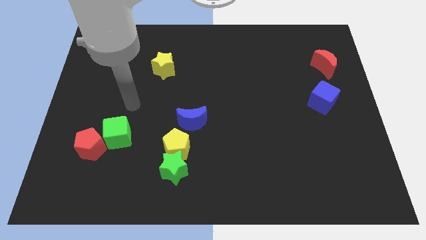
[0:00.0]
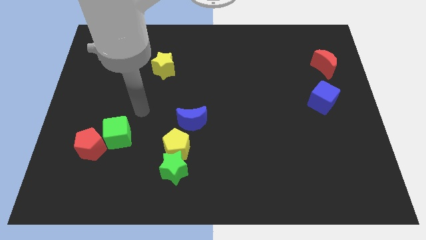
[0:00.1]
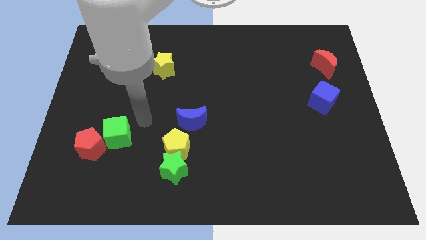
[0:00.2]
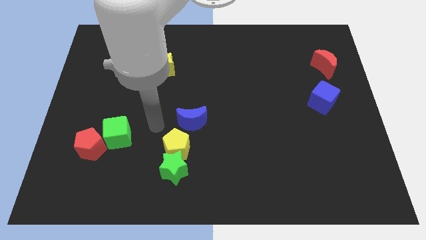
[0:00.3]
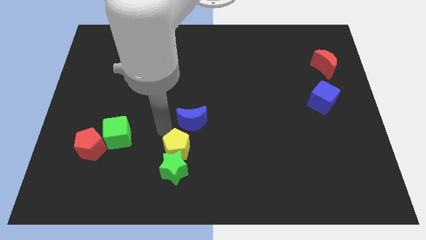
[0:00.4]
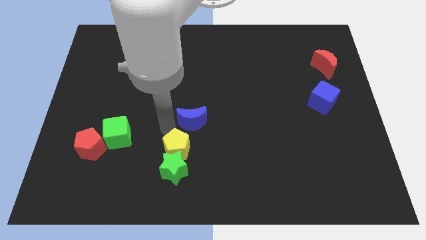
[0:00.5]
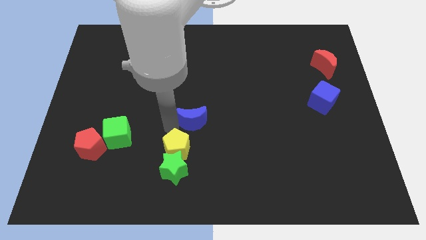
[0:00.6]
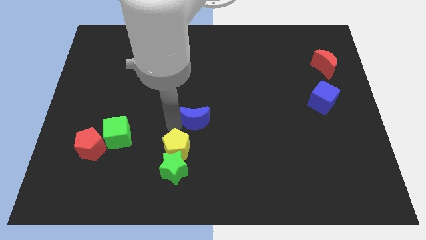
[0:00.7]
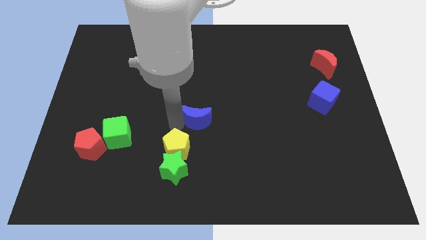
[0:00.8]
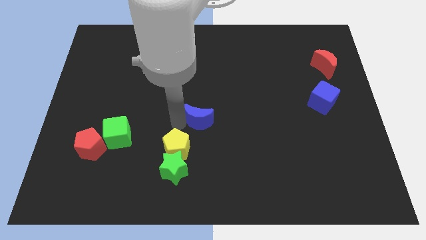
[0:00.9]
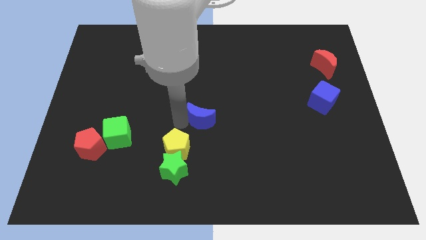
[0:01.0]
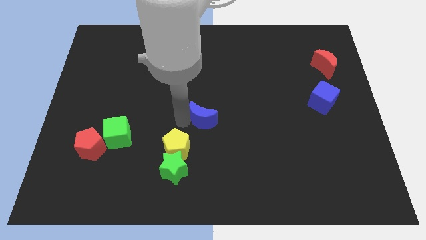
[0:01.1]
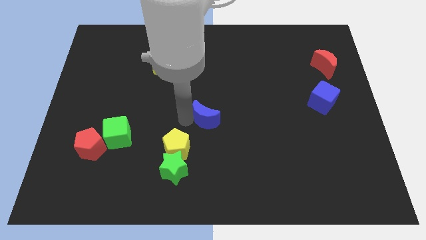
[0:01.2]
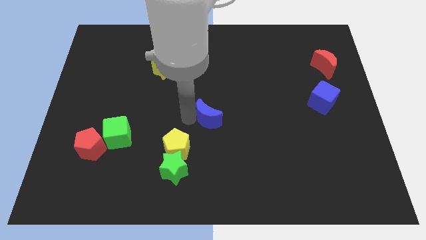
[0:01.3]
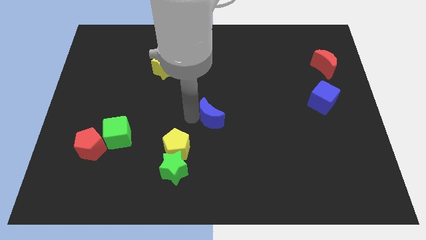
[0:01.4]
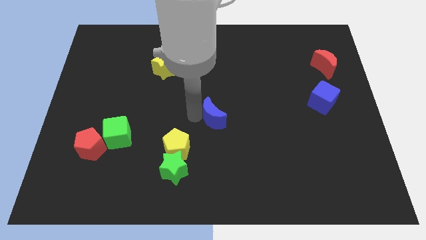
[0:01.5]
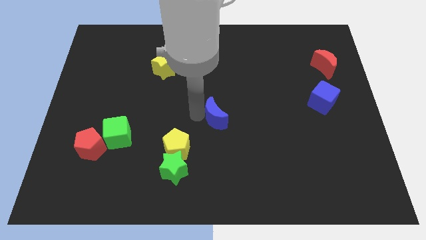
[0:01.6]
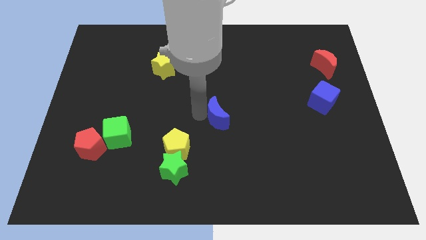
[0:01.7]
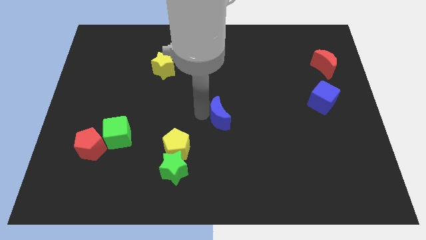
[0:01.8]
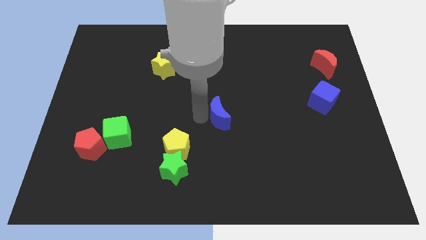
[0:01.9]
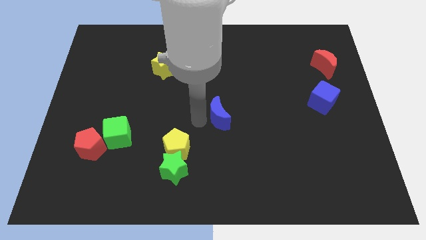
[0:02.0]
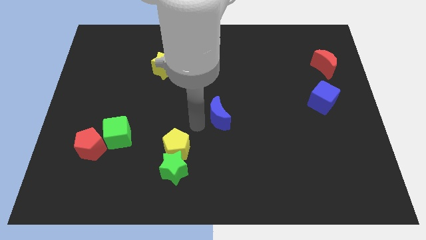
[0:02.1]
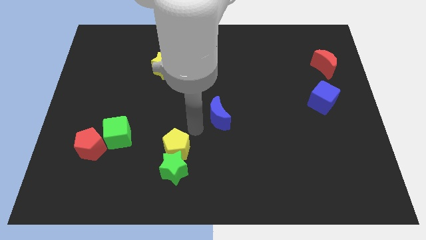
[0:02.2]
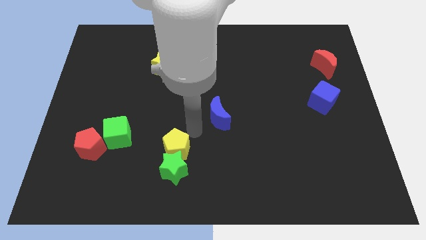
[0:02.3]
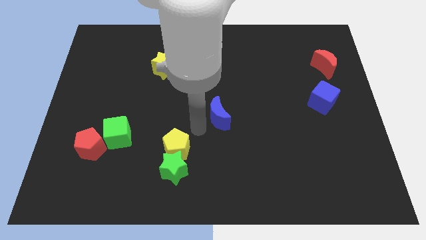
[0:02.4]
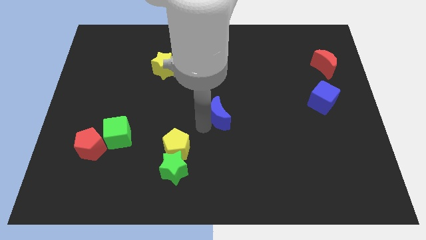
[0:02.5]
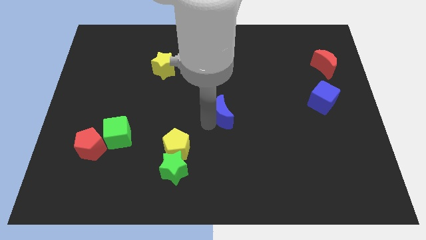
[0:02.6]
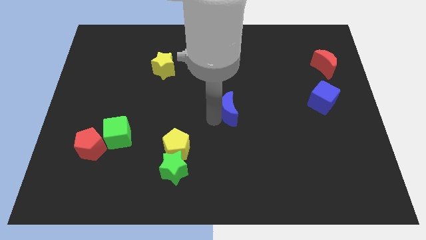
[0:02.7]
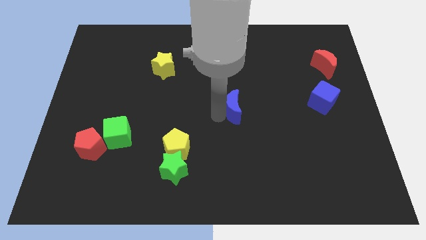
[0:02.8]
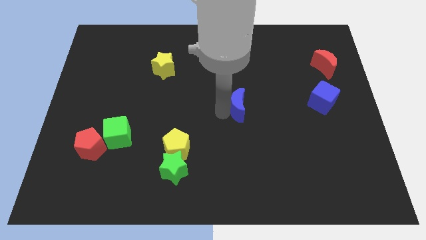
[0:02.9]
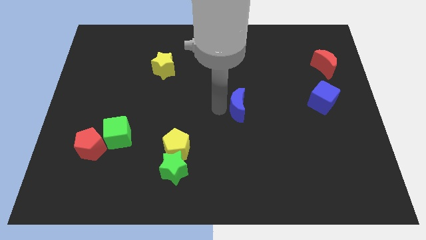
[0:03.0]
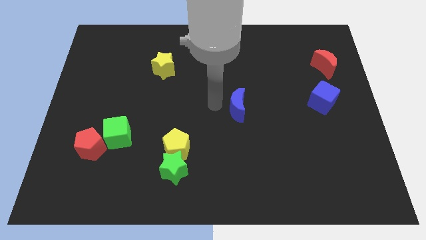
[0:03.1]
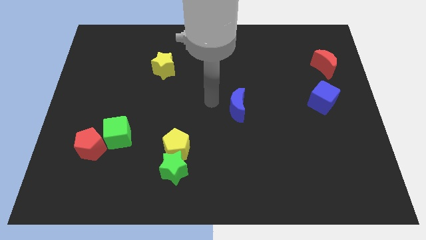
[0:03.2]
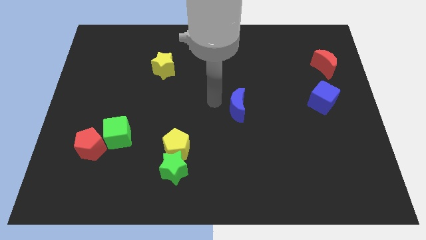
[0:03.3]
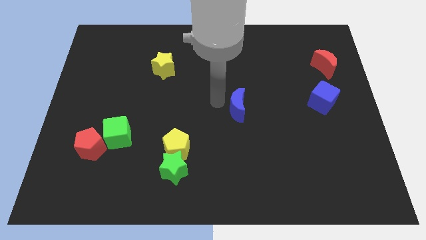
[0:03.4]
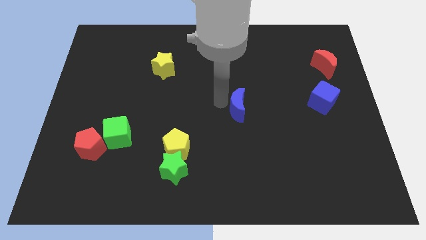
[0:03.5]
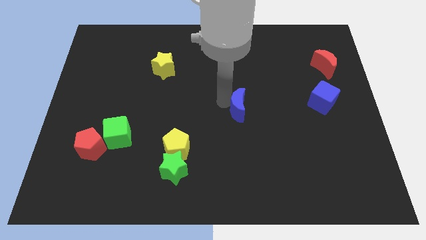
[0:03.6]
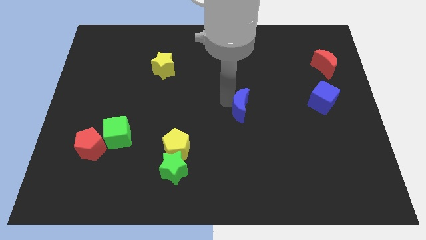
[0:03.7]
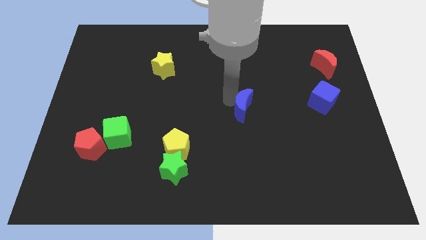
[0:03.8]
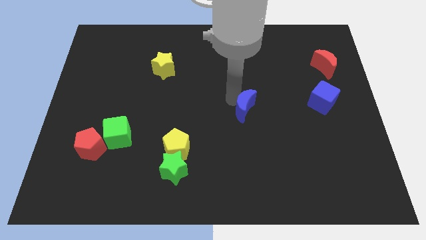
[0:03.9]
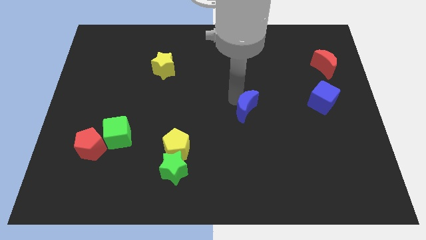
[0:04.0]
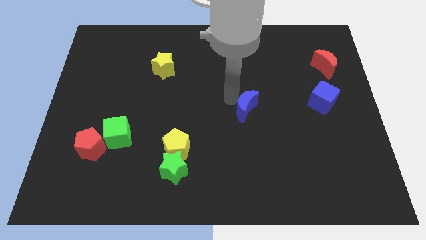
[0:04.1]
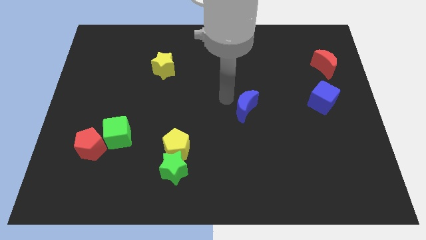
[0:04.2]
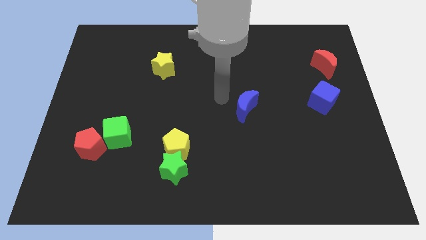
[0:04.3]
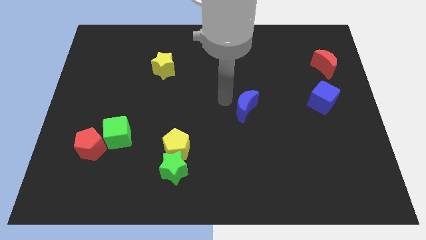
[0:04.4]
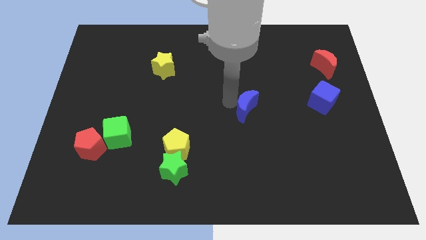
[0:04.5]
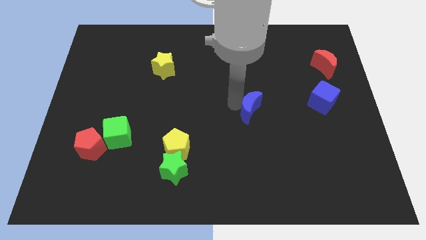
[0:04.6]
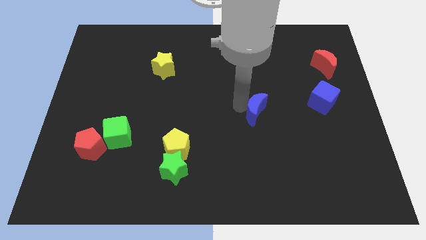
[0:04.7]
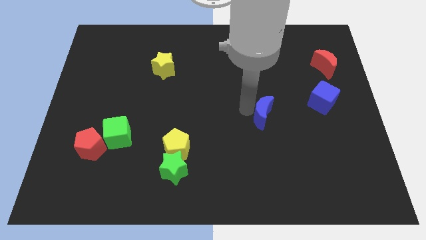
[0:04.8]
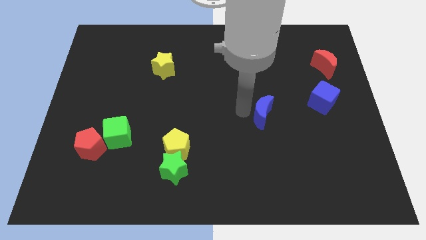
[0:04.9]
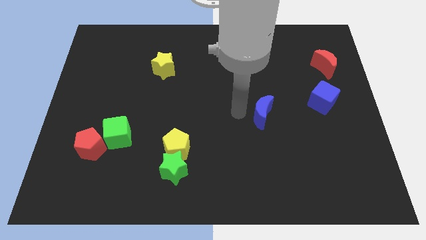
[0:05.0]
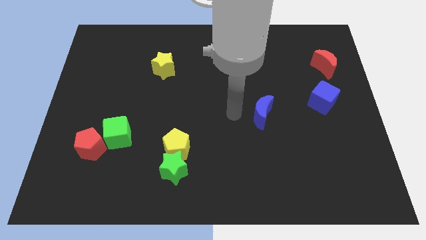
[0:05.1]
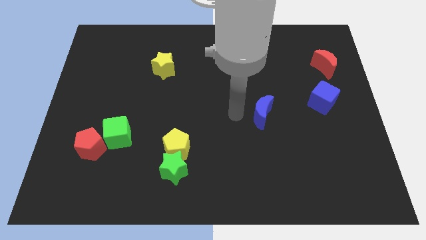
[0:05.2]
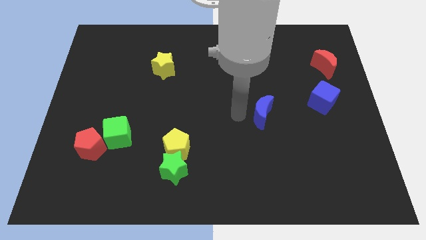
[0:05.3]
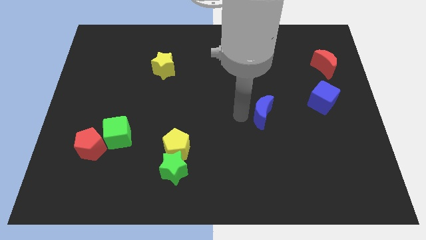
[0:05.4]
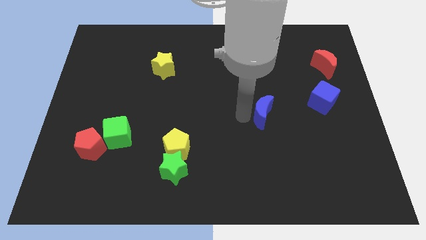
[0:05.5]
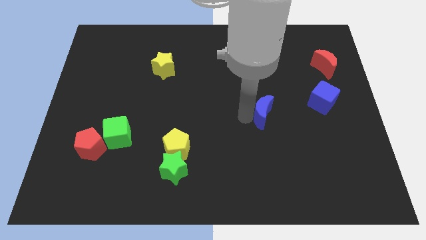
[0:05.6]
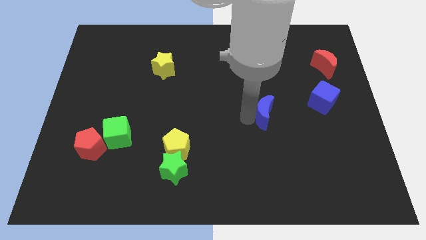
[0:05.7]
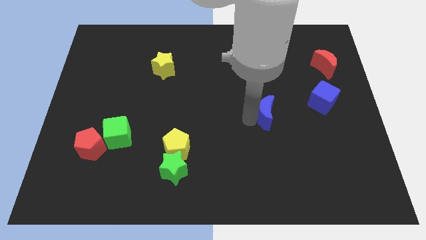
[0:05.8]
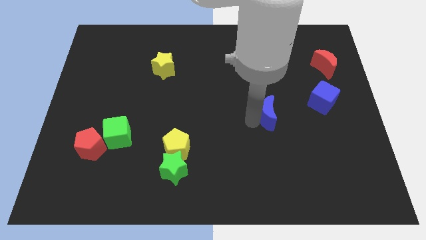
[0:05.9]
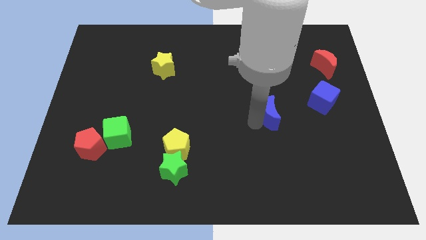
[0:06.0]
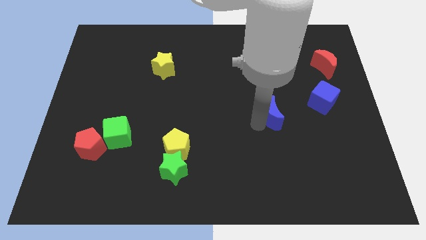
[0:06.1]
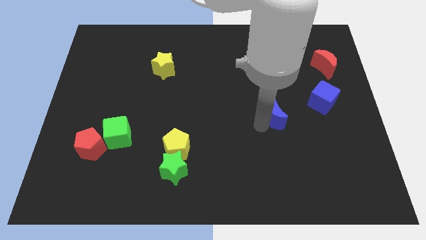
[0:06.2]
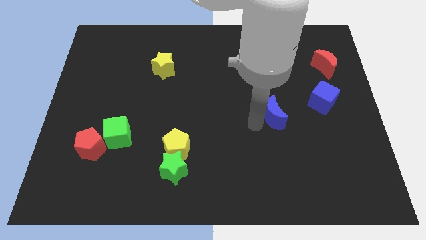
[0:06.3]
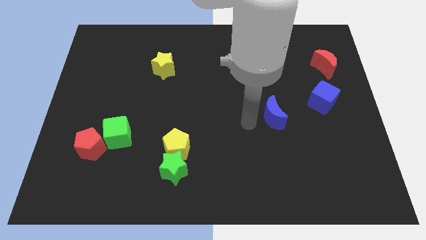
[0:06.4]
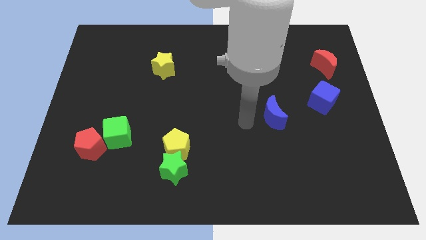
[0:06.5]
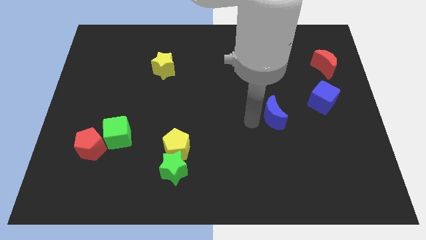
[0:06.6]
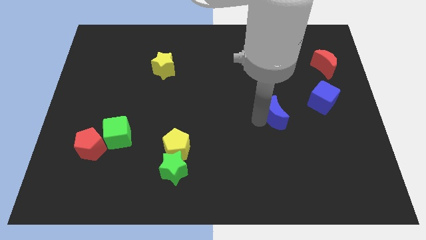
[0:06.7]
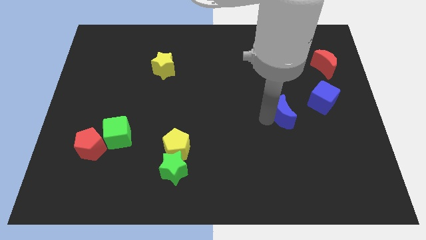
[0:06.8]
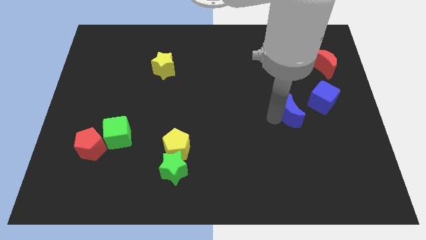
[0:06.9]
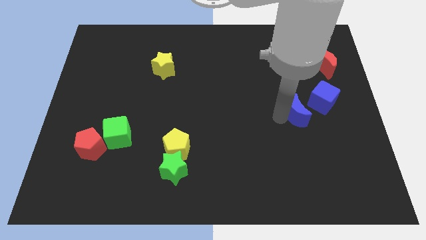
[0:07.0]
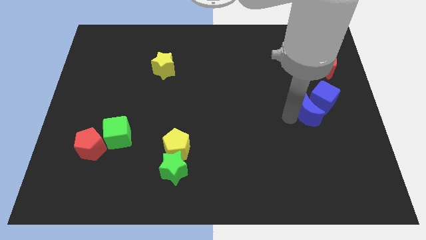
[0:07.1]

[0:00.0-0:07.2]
slide the blue moon next to the blue cube

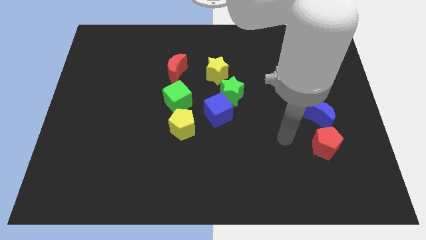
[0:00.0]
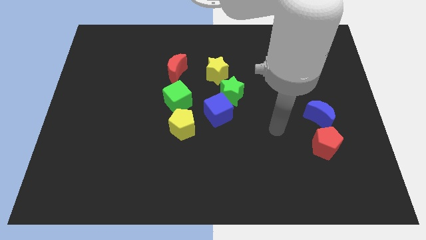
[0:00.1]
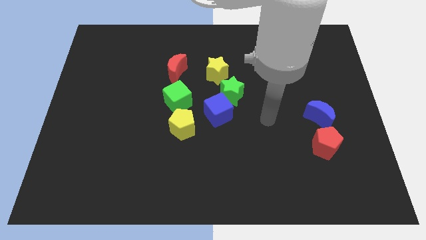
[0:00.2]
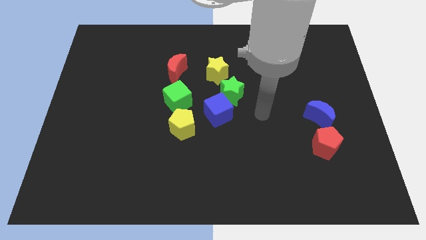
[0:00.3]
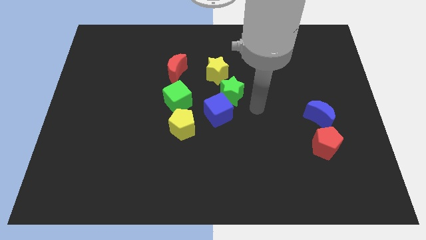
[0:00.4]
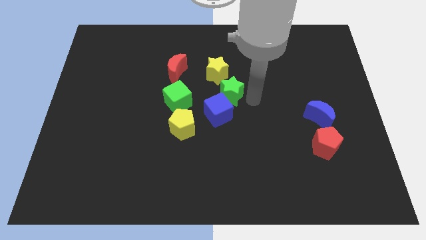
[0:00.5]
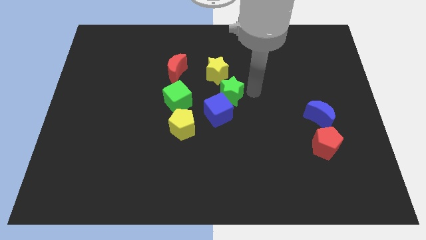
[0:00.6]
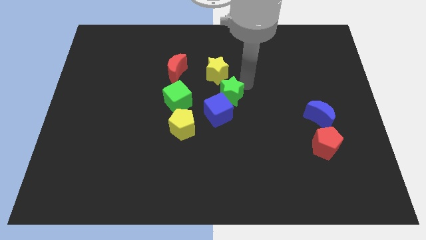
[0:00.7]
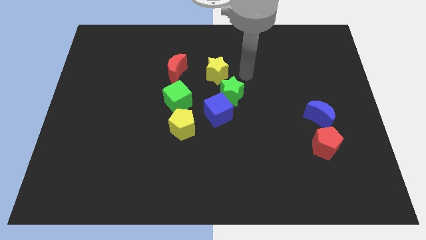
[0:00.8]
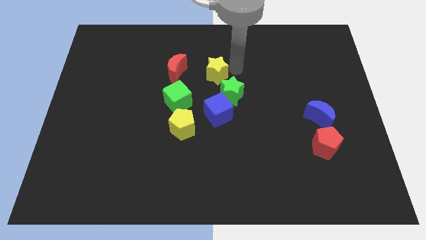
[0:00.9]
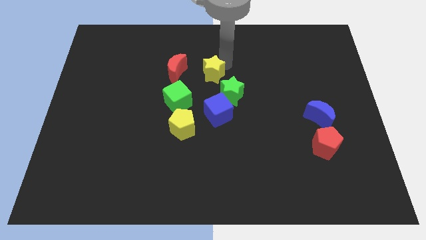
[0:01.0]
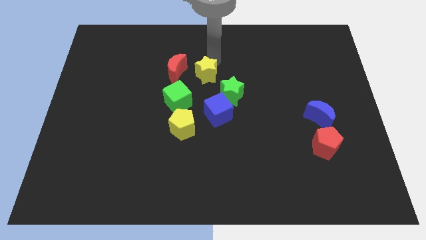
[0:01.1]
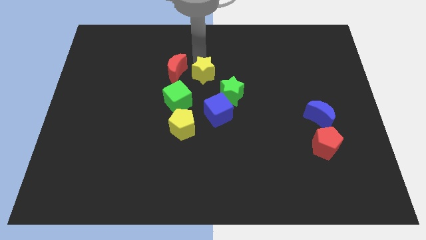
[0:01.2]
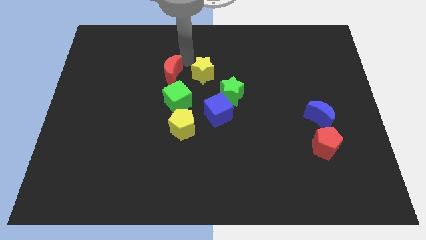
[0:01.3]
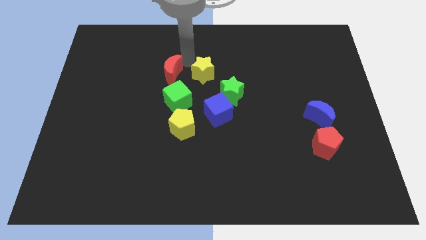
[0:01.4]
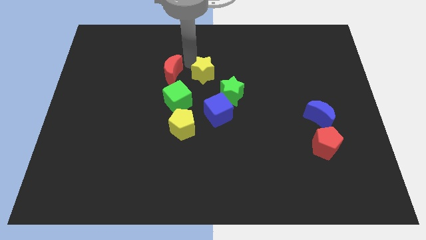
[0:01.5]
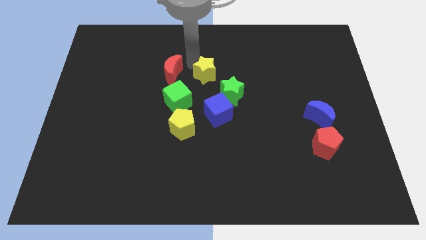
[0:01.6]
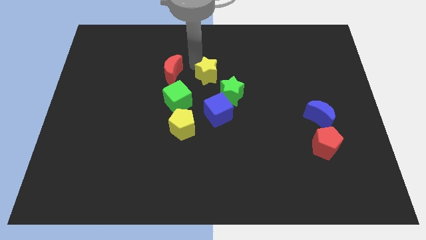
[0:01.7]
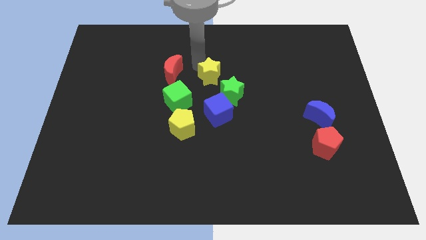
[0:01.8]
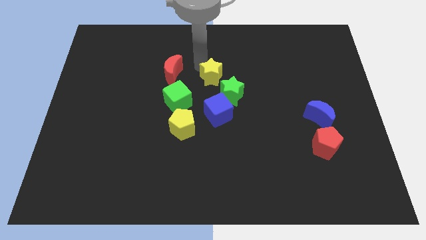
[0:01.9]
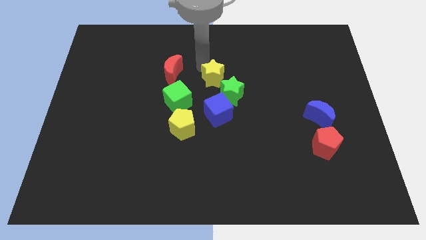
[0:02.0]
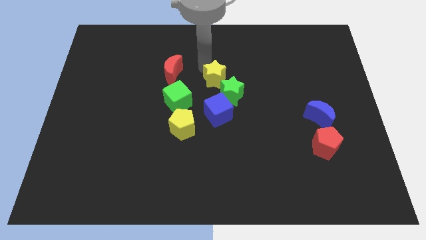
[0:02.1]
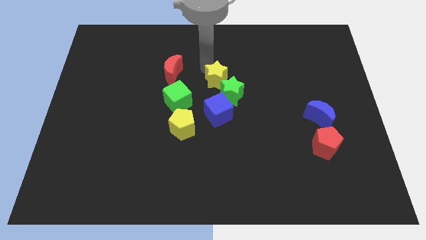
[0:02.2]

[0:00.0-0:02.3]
put the yellow star towards the green star
